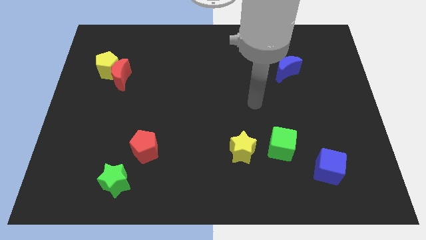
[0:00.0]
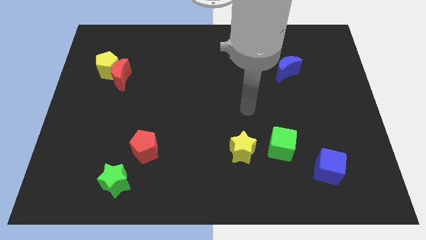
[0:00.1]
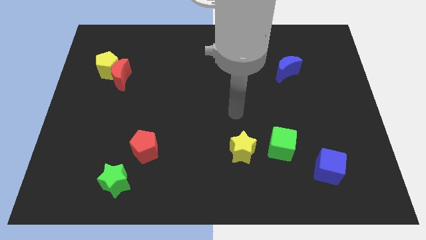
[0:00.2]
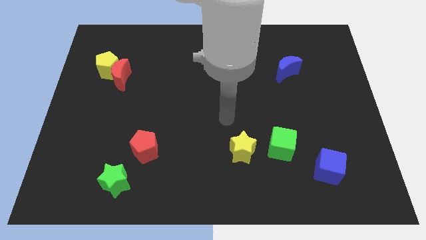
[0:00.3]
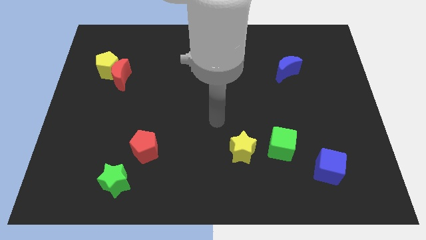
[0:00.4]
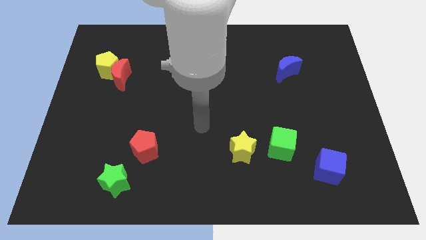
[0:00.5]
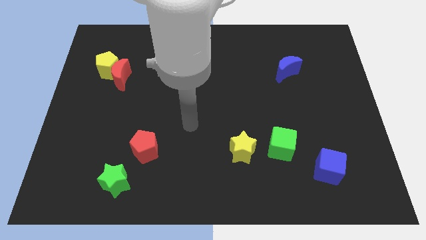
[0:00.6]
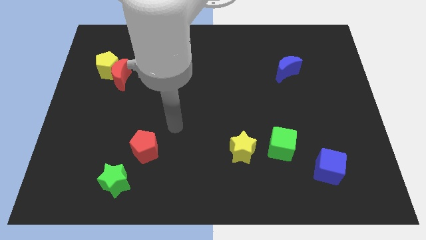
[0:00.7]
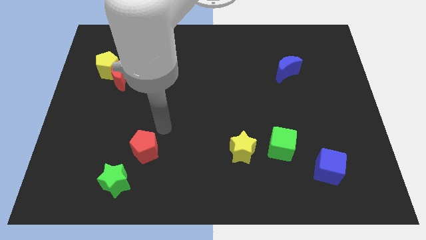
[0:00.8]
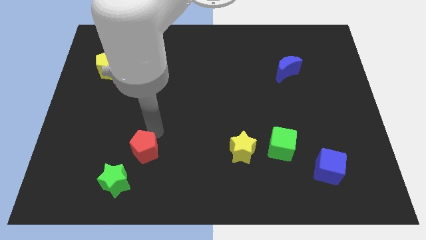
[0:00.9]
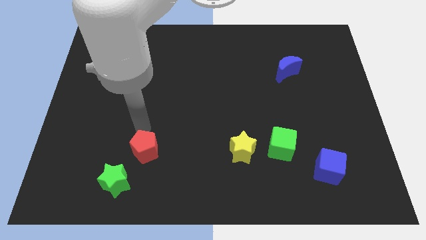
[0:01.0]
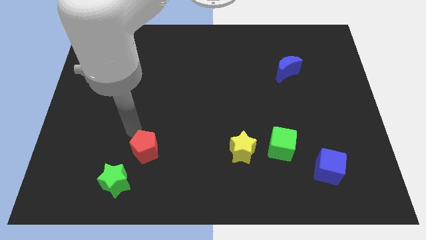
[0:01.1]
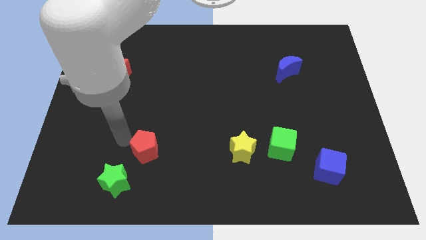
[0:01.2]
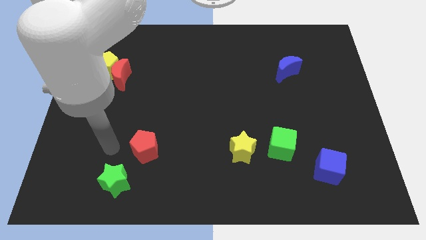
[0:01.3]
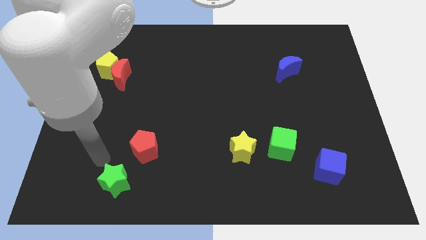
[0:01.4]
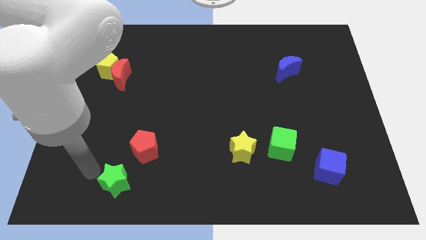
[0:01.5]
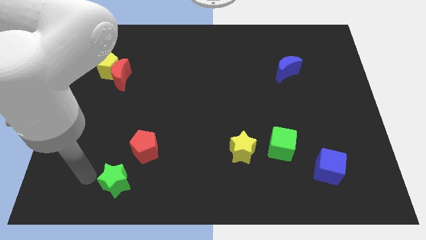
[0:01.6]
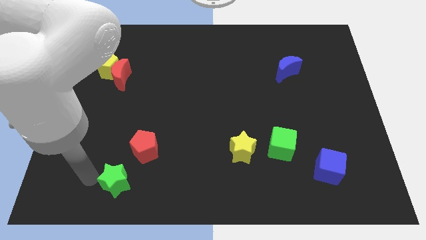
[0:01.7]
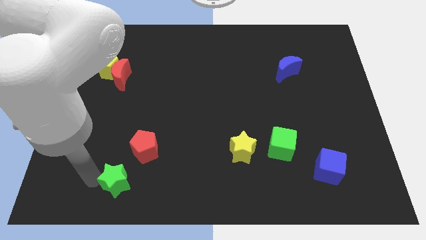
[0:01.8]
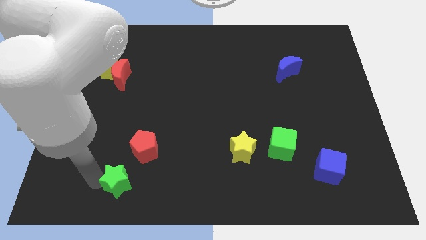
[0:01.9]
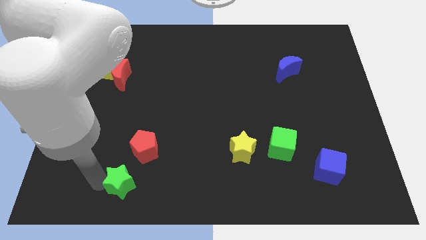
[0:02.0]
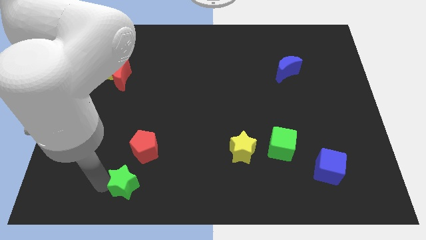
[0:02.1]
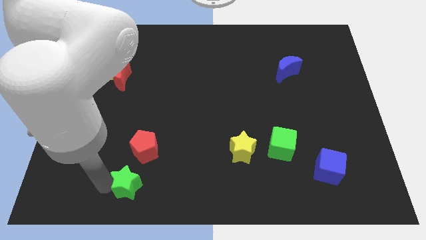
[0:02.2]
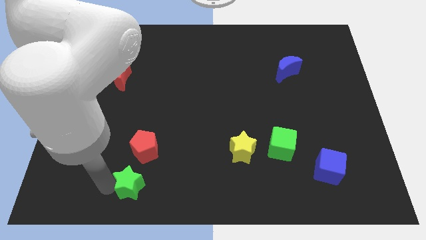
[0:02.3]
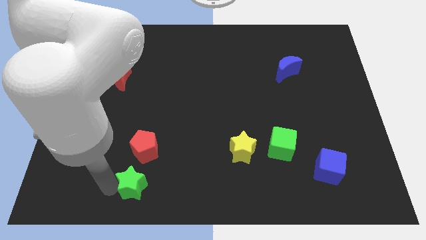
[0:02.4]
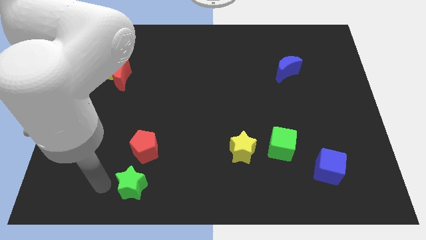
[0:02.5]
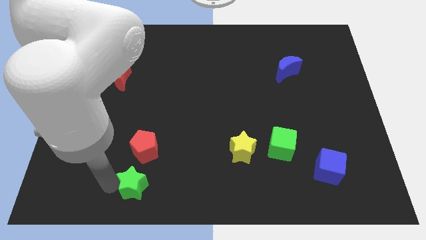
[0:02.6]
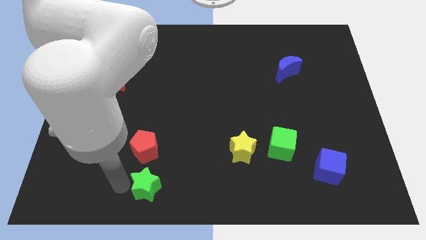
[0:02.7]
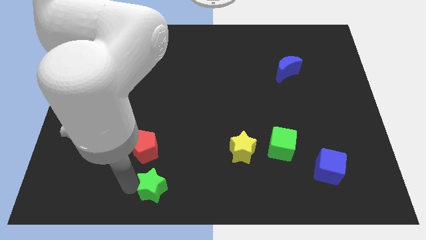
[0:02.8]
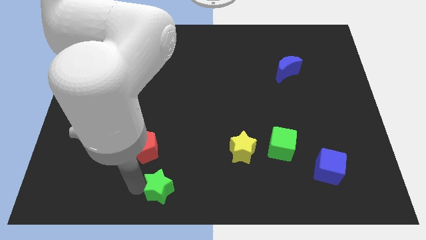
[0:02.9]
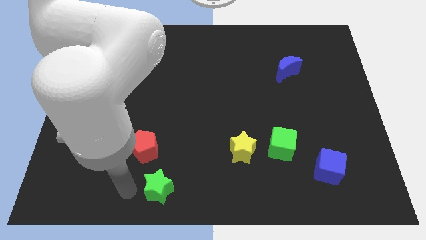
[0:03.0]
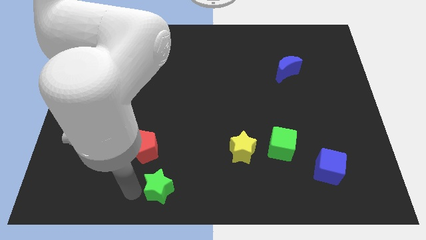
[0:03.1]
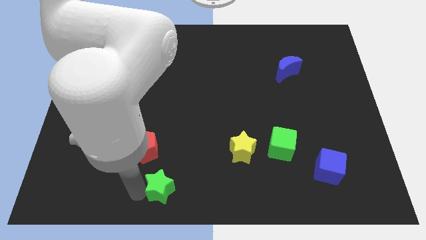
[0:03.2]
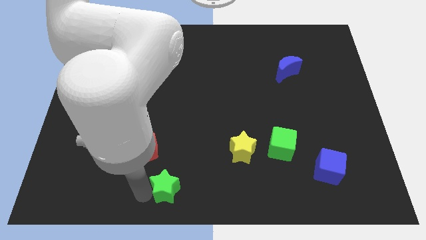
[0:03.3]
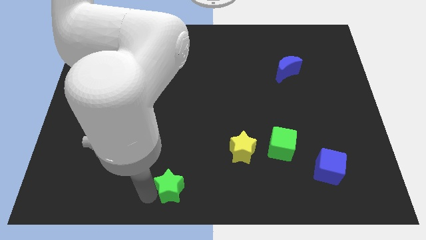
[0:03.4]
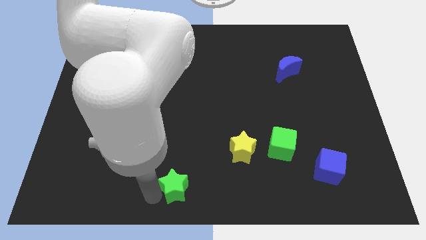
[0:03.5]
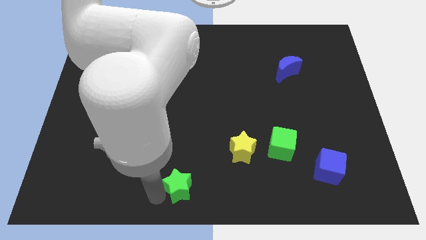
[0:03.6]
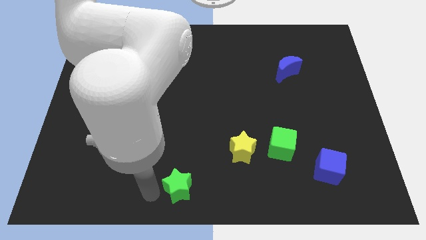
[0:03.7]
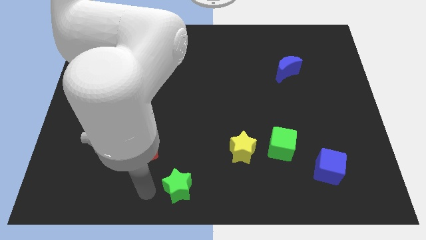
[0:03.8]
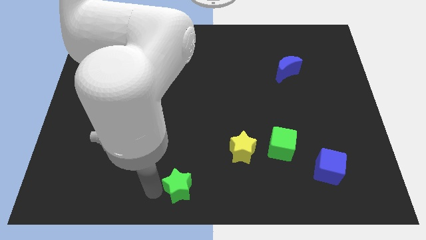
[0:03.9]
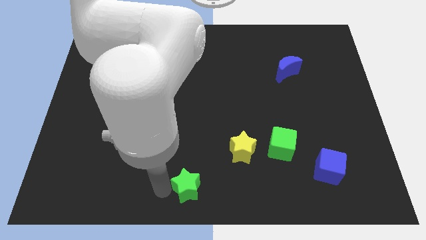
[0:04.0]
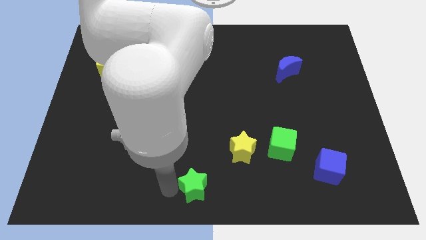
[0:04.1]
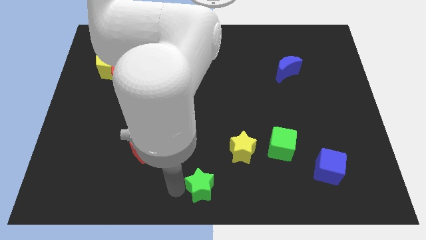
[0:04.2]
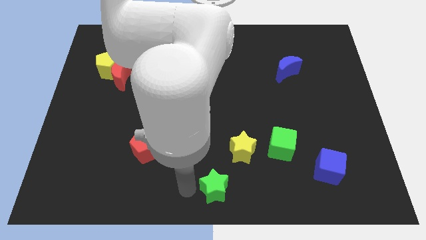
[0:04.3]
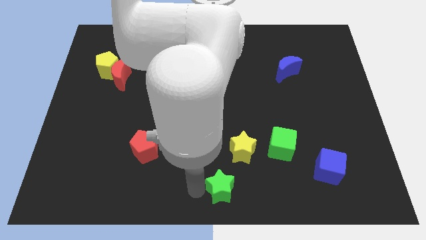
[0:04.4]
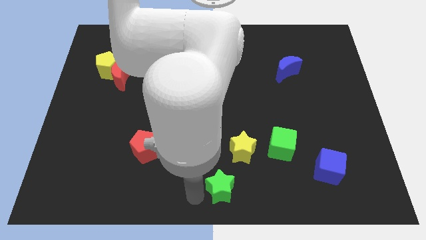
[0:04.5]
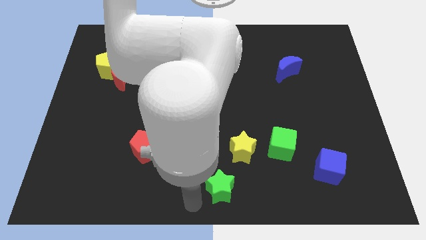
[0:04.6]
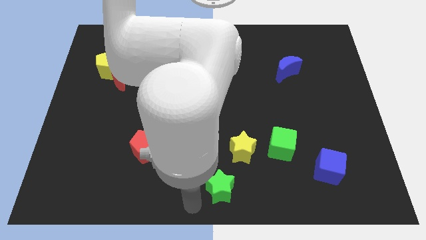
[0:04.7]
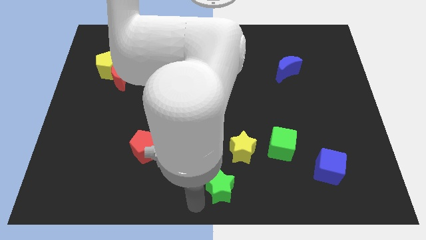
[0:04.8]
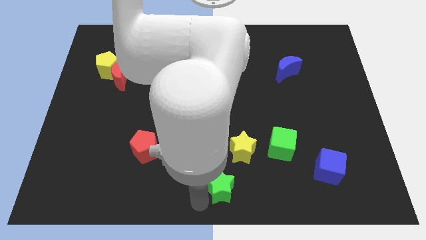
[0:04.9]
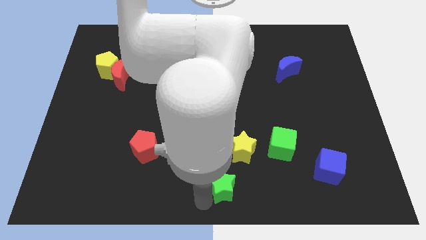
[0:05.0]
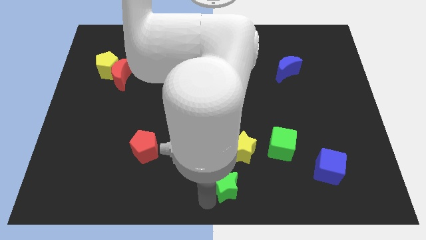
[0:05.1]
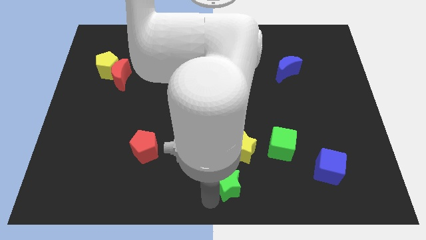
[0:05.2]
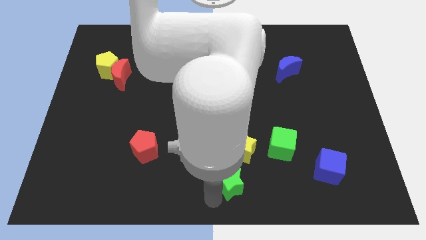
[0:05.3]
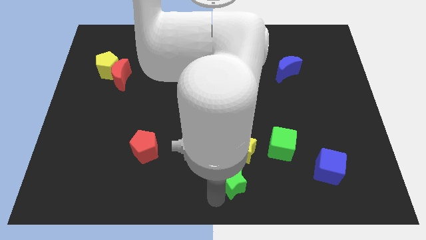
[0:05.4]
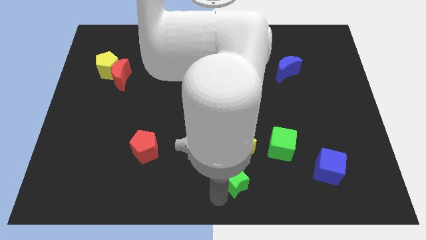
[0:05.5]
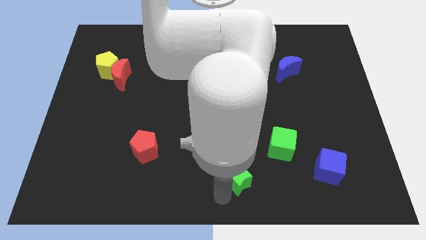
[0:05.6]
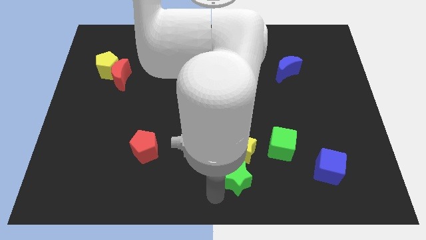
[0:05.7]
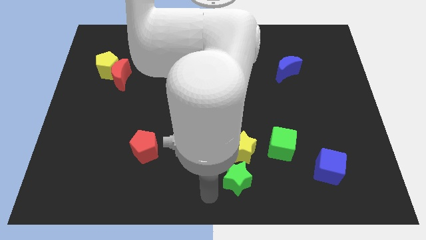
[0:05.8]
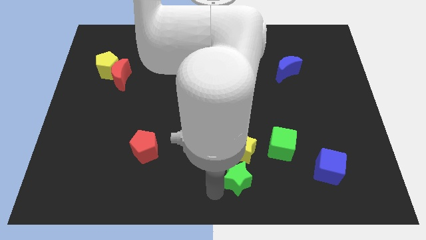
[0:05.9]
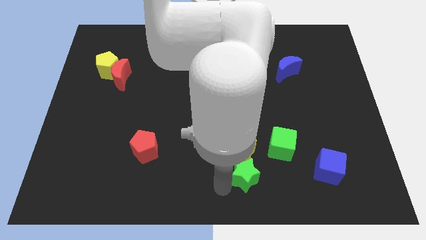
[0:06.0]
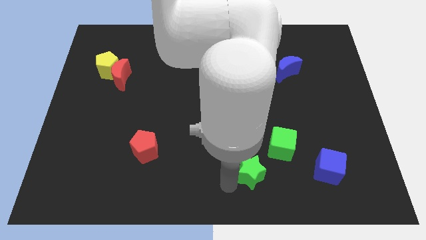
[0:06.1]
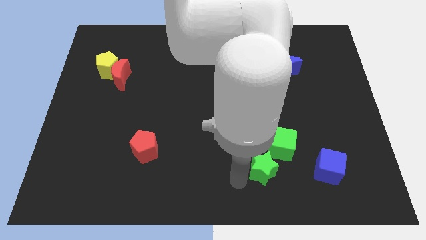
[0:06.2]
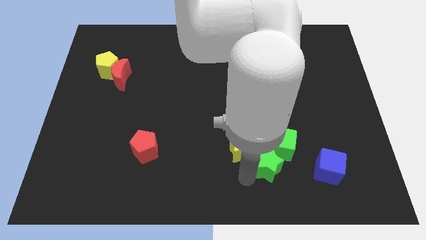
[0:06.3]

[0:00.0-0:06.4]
push the green star towards the green cube

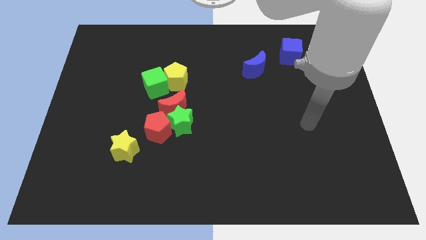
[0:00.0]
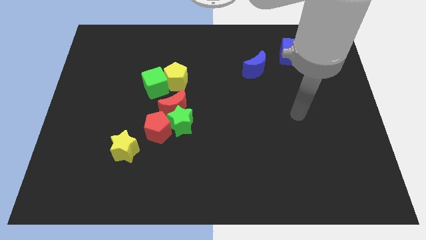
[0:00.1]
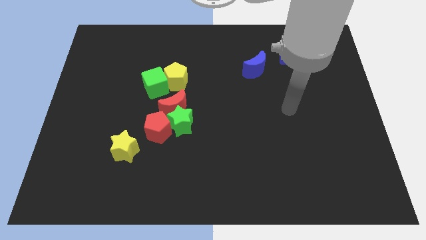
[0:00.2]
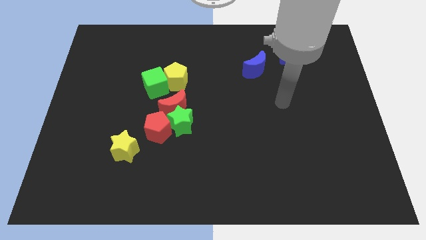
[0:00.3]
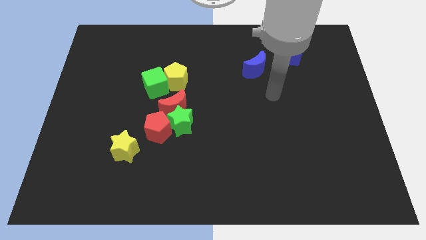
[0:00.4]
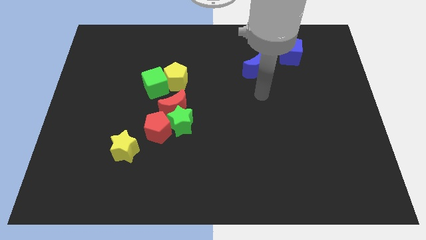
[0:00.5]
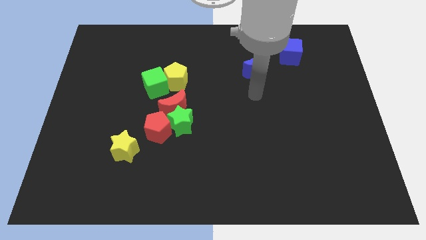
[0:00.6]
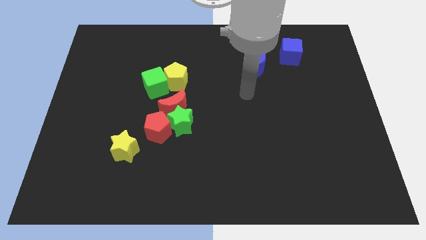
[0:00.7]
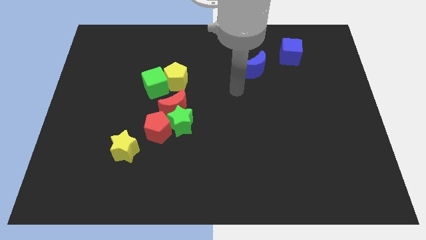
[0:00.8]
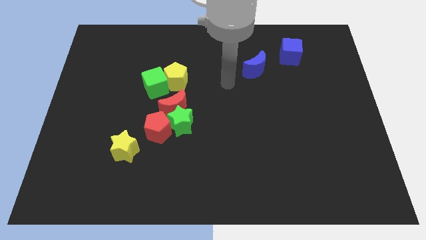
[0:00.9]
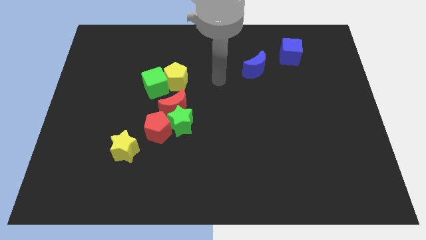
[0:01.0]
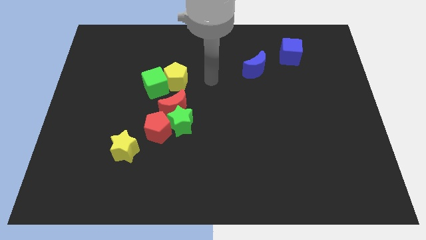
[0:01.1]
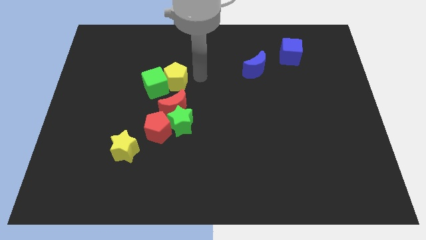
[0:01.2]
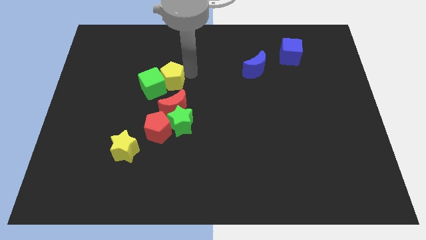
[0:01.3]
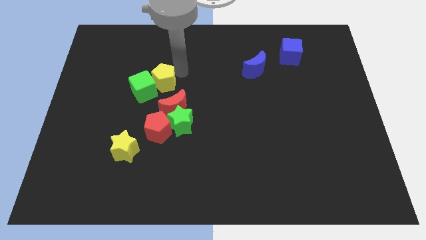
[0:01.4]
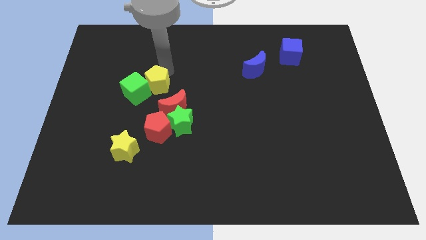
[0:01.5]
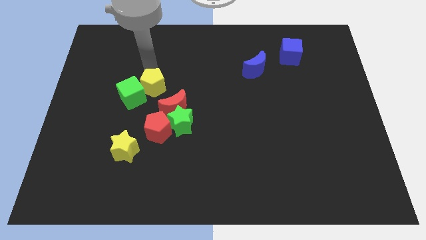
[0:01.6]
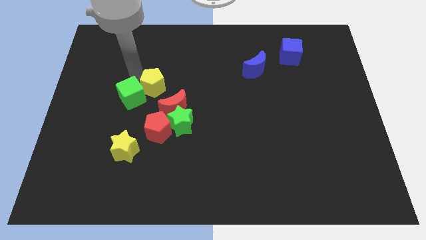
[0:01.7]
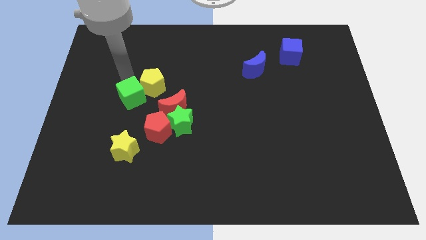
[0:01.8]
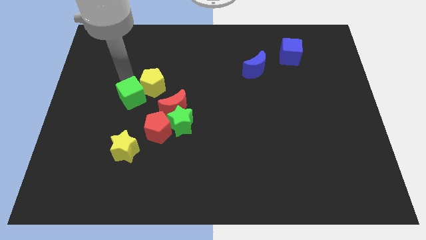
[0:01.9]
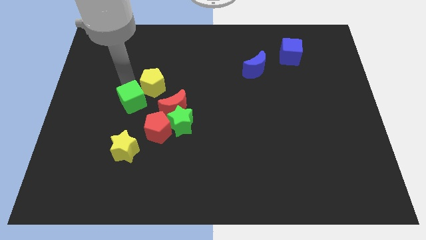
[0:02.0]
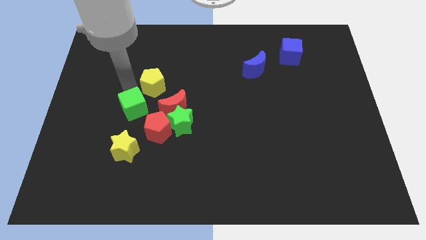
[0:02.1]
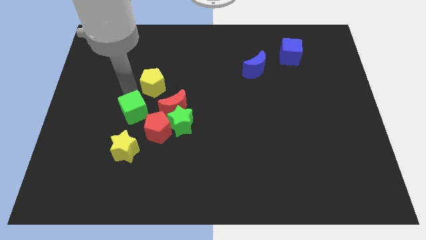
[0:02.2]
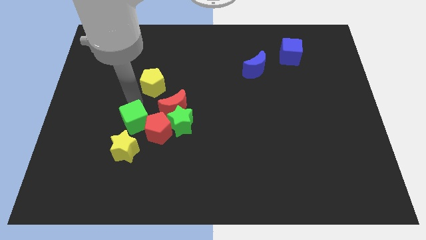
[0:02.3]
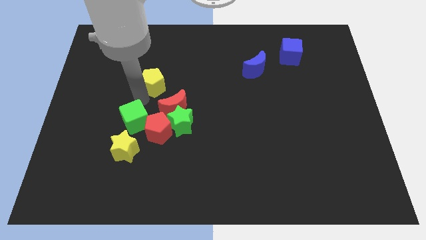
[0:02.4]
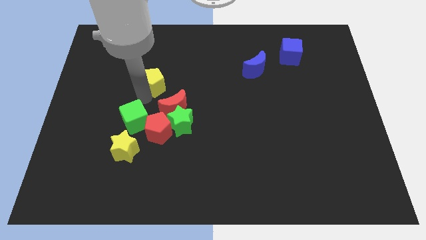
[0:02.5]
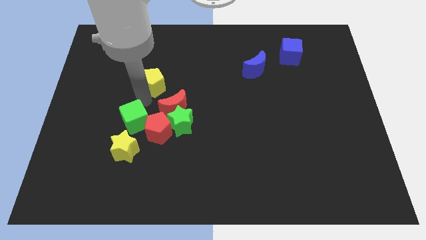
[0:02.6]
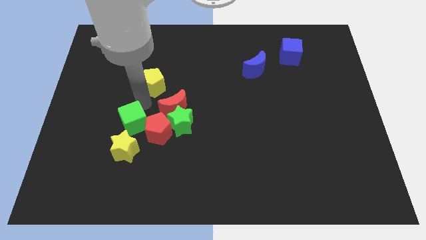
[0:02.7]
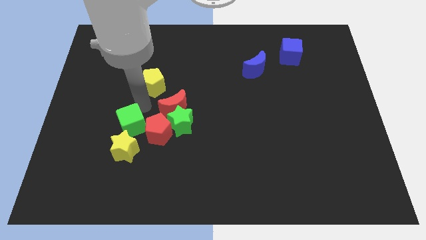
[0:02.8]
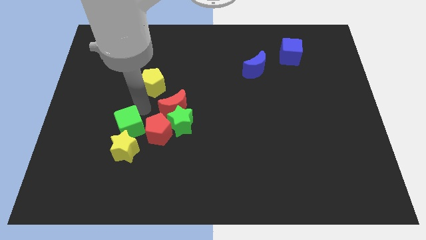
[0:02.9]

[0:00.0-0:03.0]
push the green cube next to the yellow star
